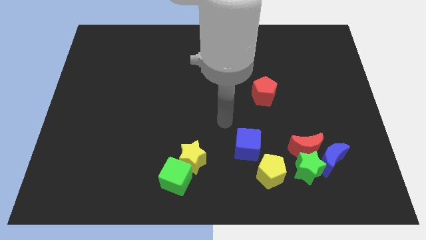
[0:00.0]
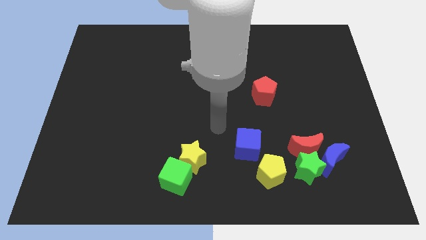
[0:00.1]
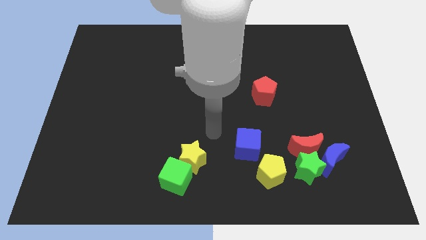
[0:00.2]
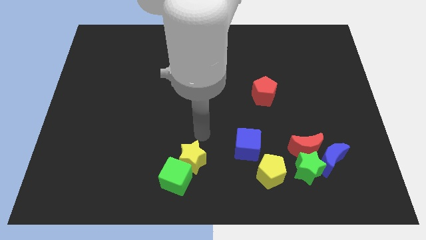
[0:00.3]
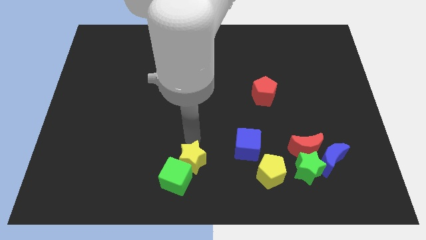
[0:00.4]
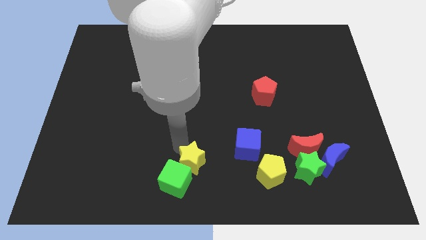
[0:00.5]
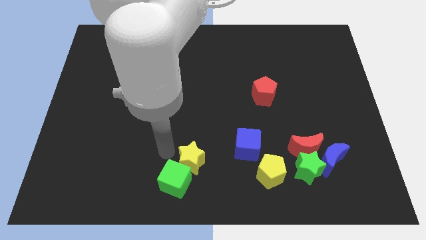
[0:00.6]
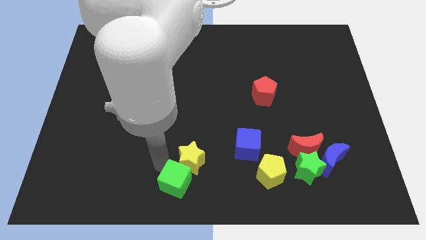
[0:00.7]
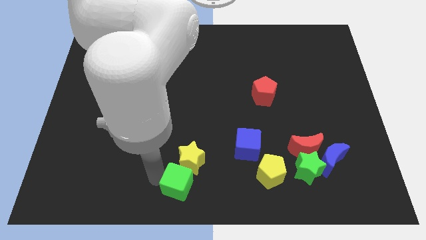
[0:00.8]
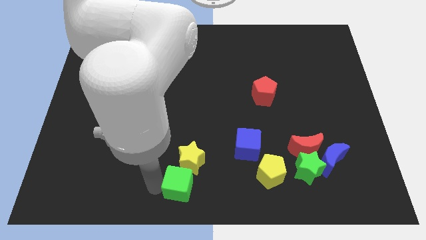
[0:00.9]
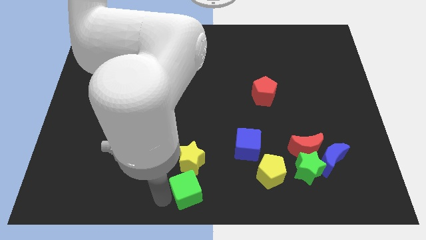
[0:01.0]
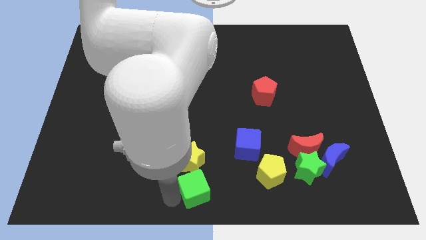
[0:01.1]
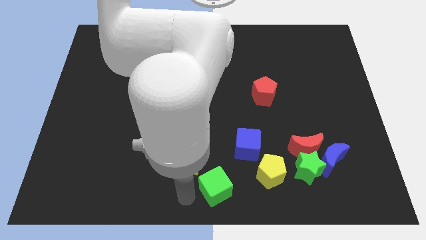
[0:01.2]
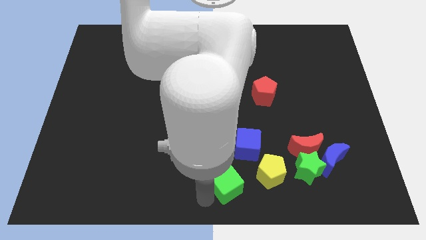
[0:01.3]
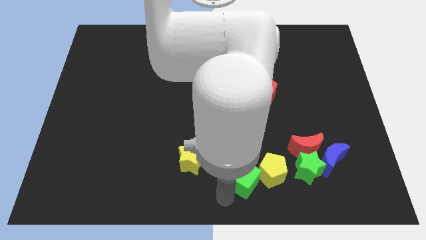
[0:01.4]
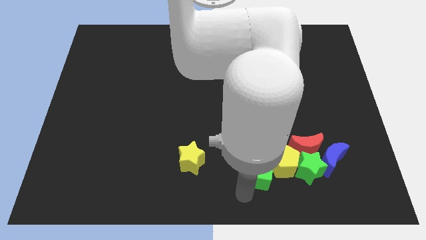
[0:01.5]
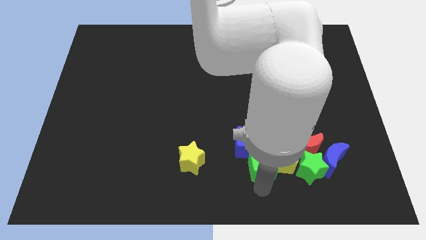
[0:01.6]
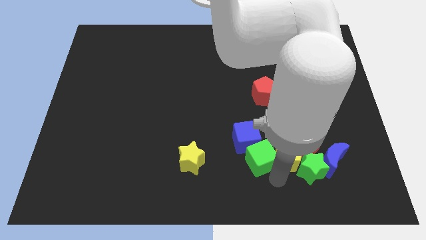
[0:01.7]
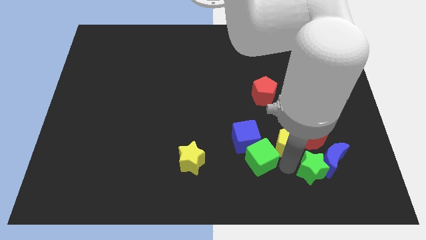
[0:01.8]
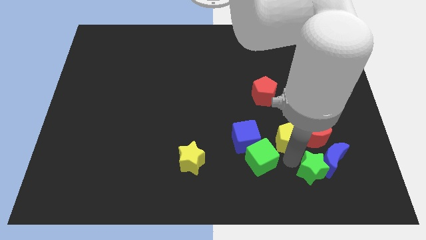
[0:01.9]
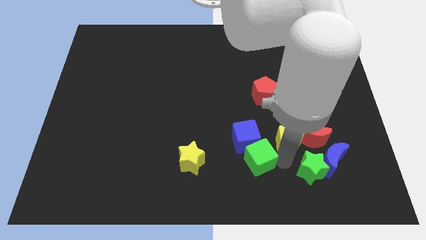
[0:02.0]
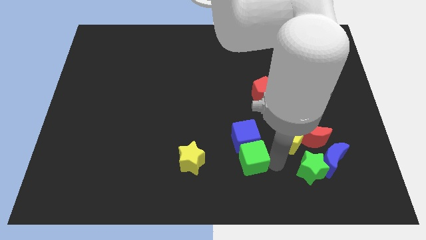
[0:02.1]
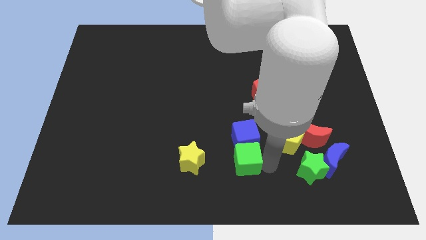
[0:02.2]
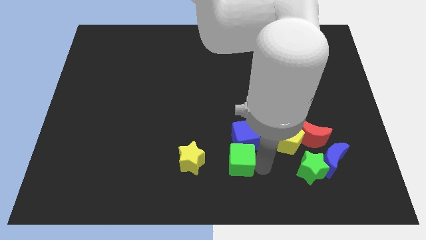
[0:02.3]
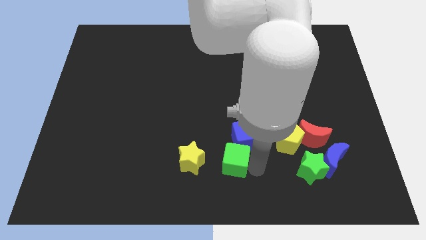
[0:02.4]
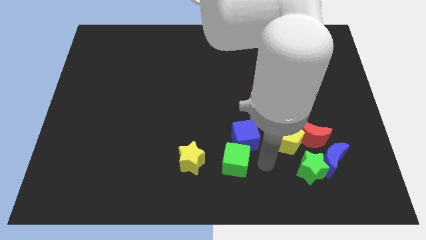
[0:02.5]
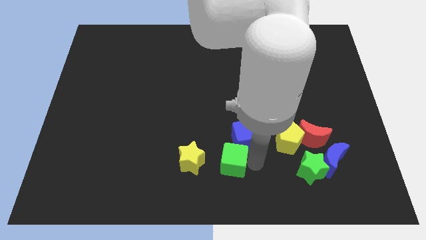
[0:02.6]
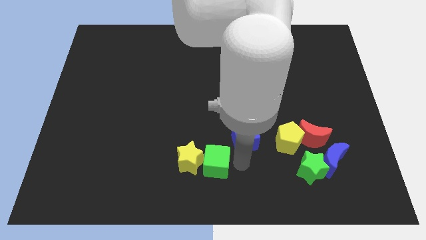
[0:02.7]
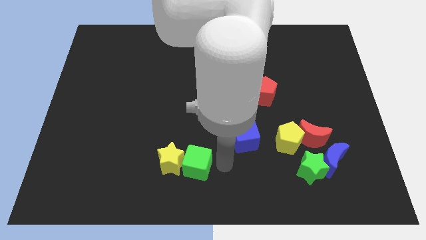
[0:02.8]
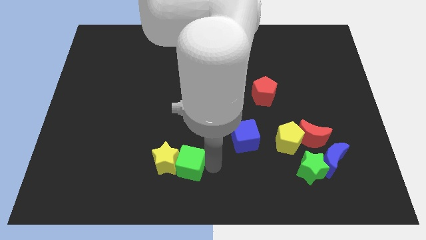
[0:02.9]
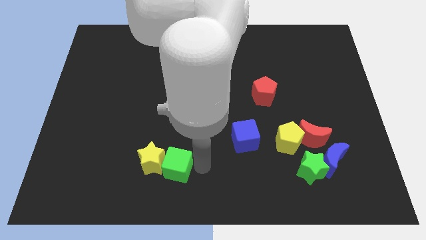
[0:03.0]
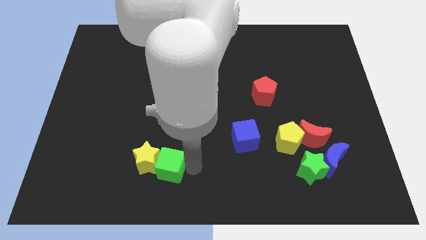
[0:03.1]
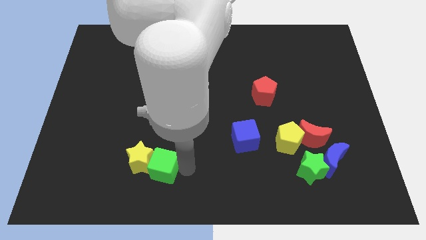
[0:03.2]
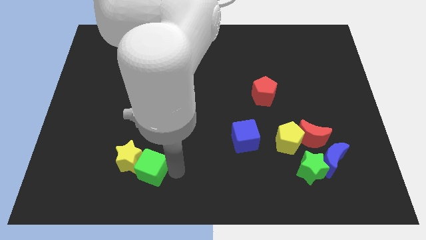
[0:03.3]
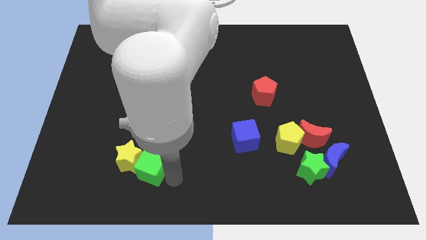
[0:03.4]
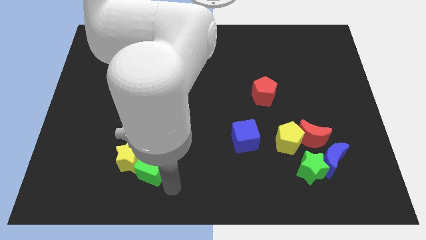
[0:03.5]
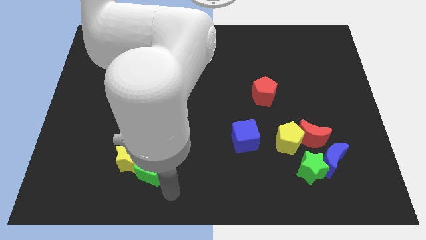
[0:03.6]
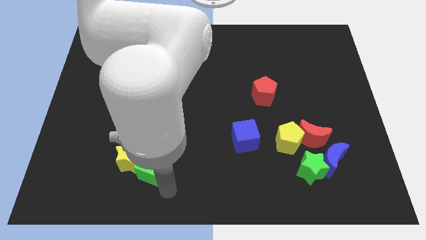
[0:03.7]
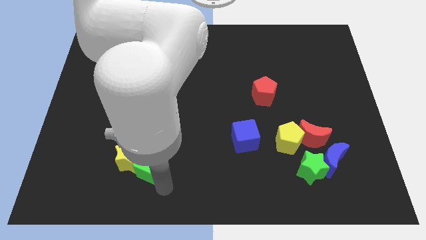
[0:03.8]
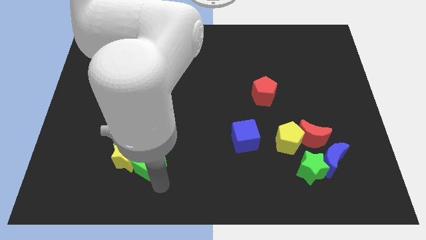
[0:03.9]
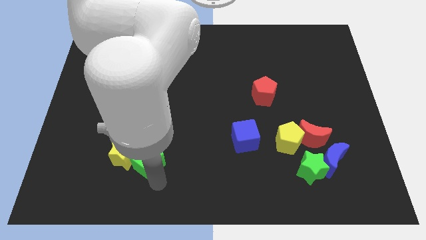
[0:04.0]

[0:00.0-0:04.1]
slide the green cube diagonally up and left a bit

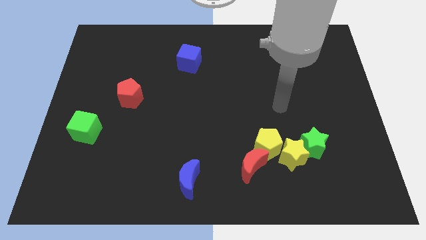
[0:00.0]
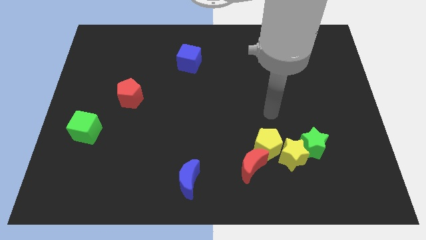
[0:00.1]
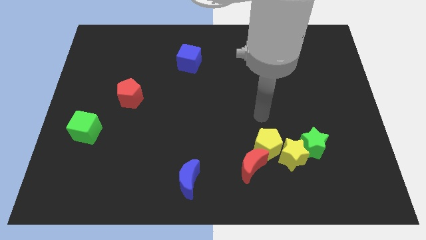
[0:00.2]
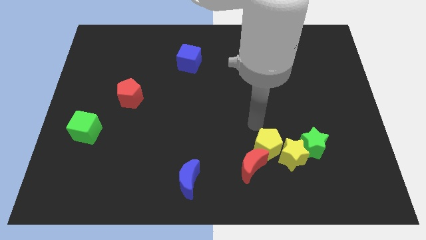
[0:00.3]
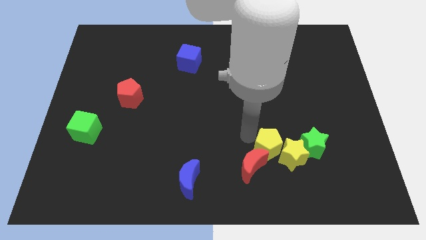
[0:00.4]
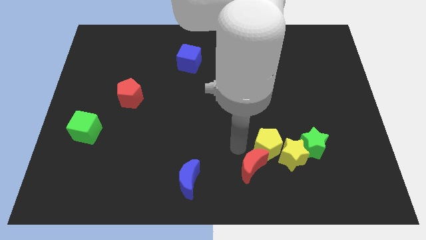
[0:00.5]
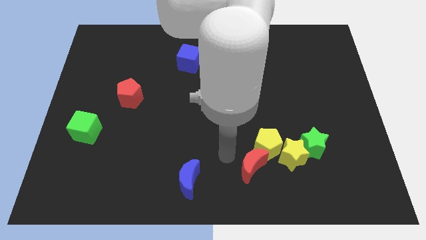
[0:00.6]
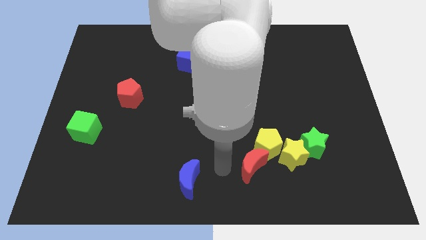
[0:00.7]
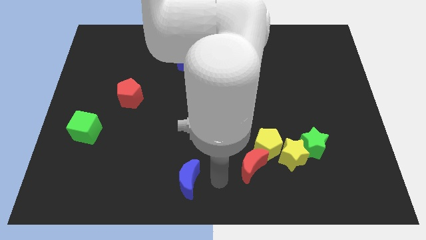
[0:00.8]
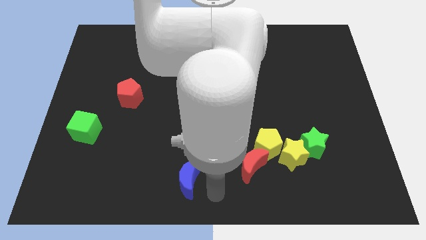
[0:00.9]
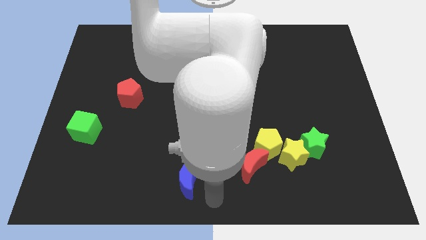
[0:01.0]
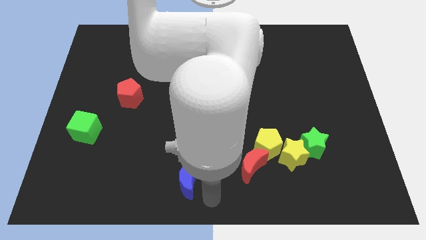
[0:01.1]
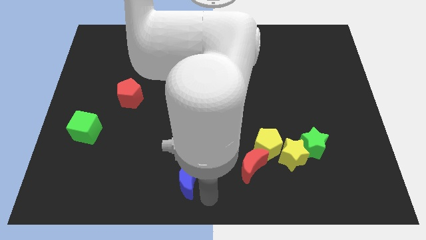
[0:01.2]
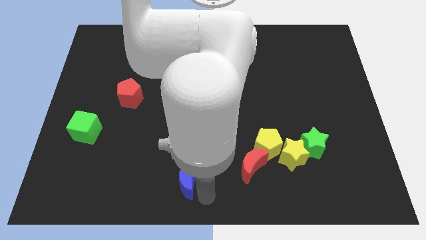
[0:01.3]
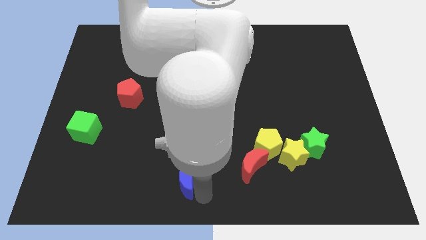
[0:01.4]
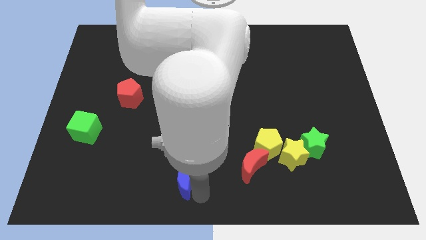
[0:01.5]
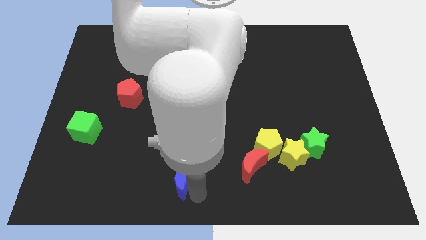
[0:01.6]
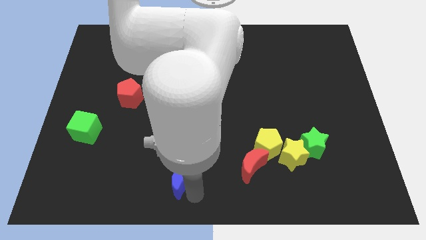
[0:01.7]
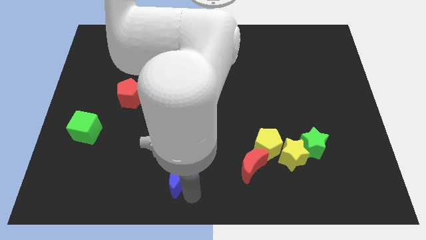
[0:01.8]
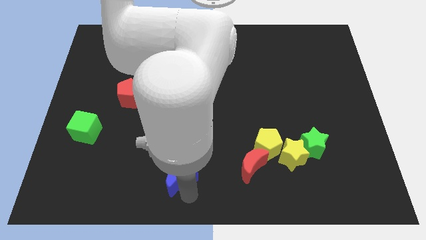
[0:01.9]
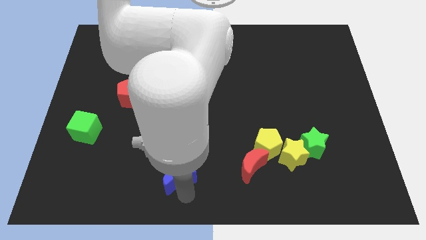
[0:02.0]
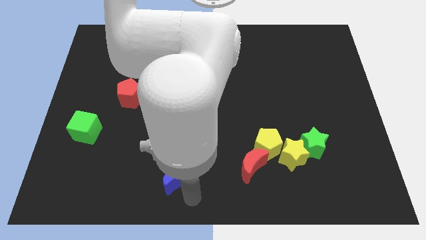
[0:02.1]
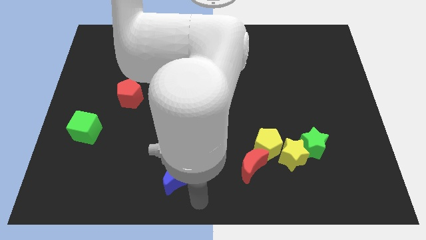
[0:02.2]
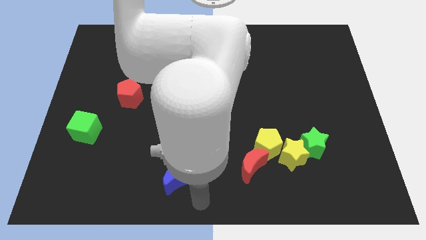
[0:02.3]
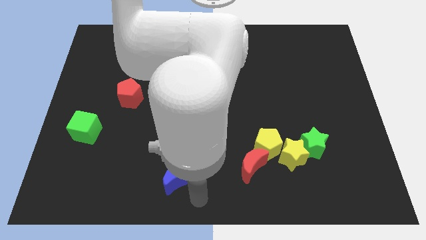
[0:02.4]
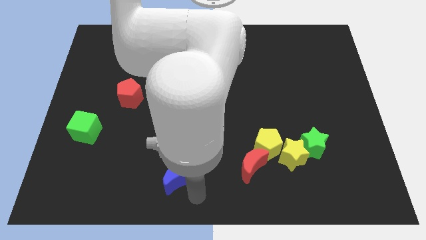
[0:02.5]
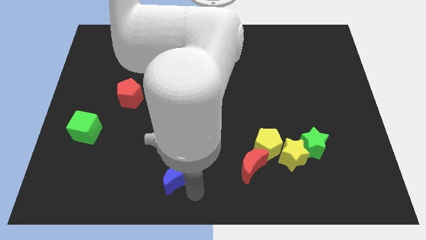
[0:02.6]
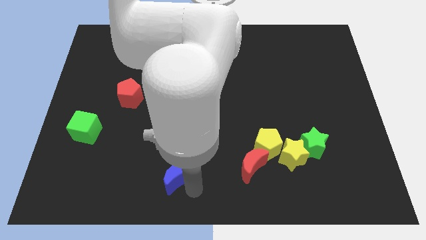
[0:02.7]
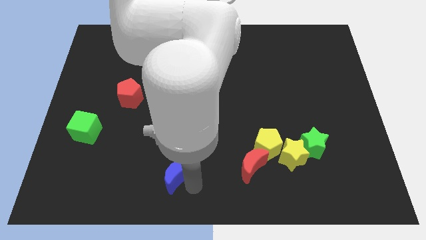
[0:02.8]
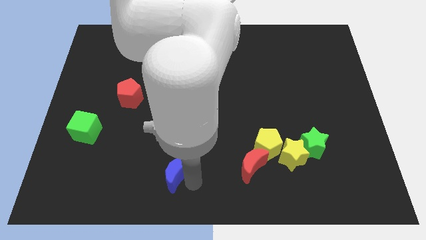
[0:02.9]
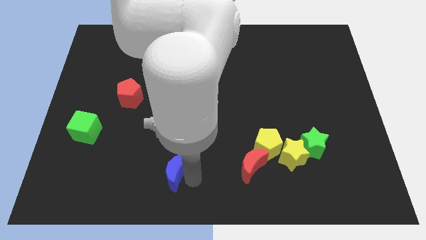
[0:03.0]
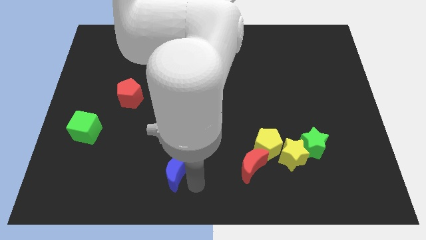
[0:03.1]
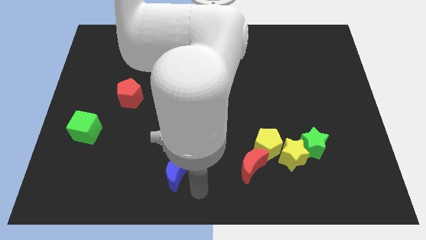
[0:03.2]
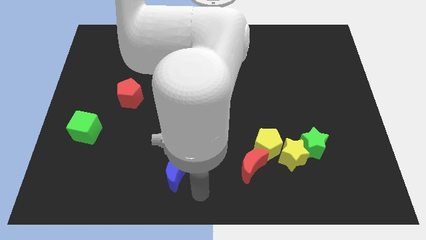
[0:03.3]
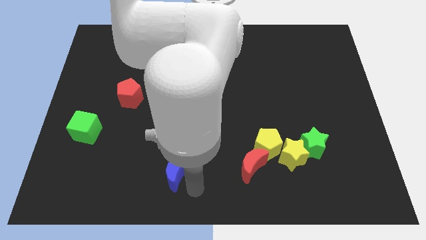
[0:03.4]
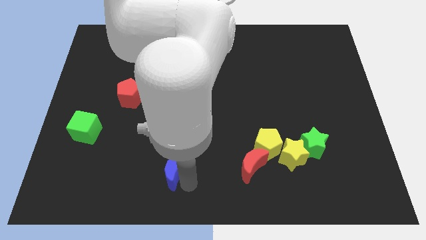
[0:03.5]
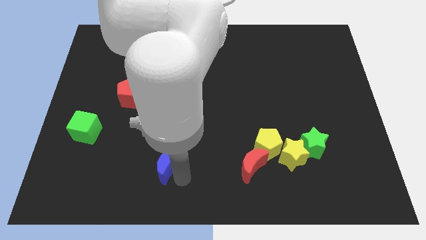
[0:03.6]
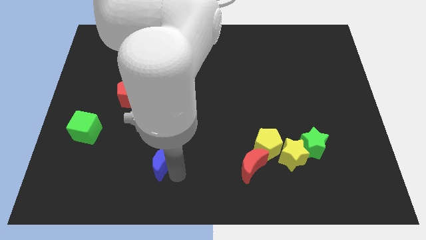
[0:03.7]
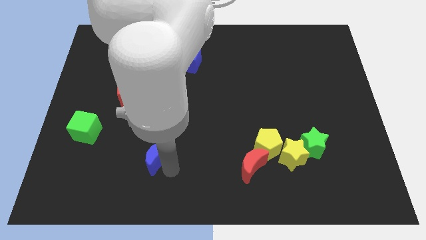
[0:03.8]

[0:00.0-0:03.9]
slightly move the blue moon upwards and then left

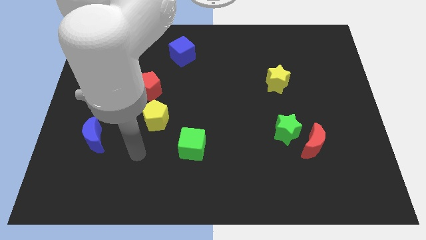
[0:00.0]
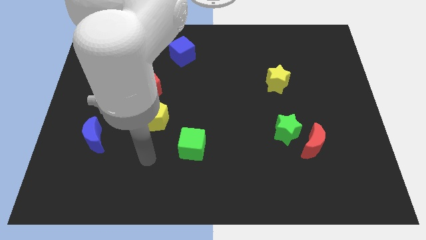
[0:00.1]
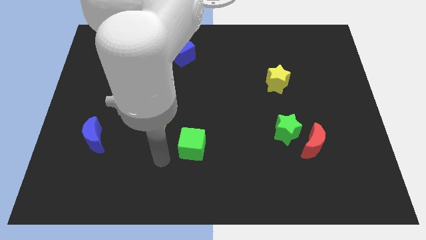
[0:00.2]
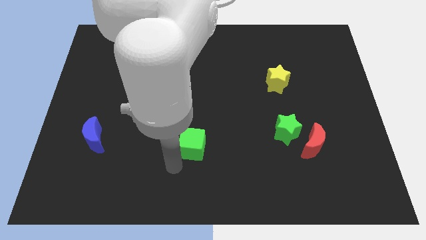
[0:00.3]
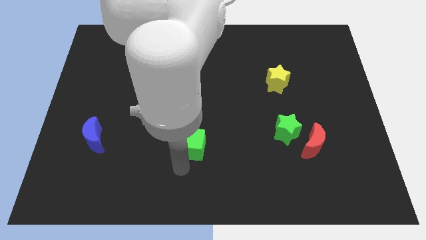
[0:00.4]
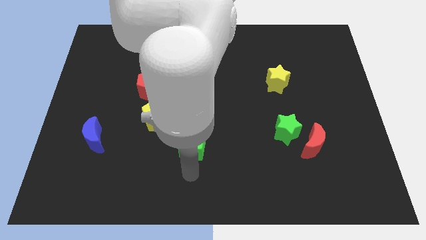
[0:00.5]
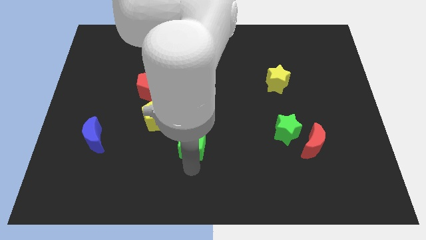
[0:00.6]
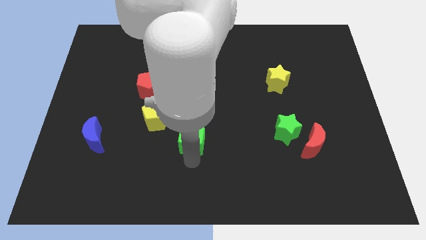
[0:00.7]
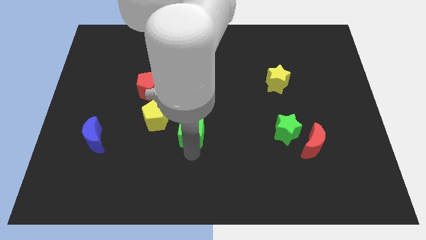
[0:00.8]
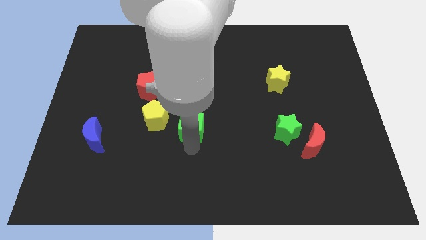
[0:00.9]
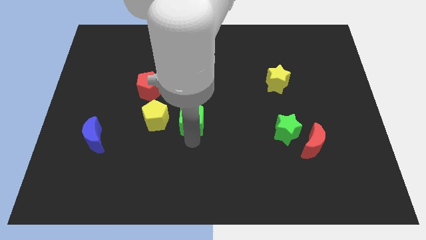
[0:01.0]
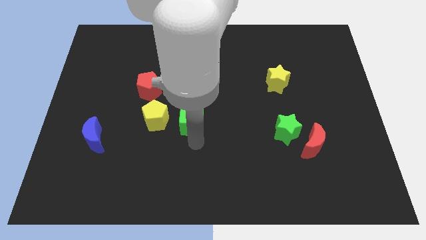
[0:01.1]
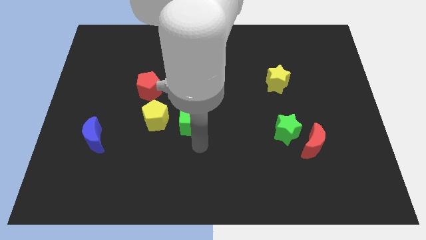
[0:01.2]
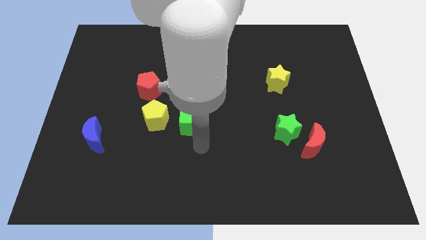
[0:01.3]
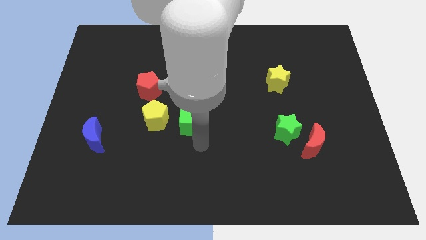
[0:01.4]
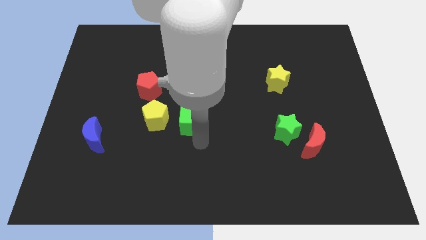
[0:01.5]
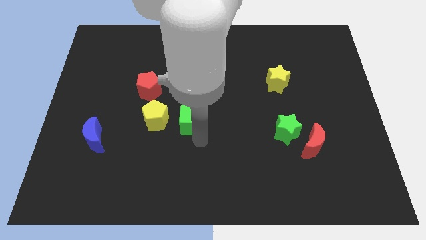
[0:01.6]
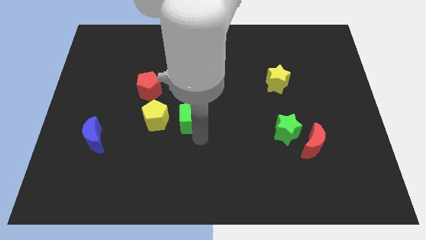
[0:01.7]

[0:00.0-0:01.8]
push the green cube somewhat up
